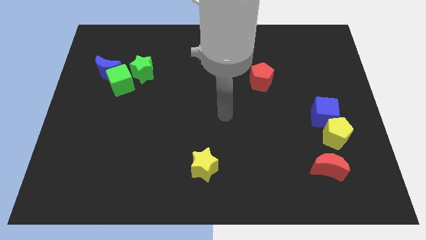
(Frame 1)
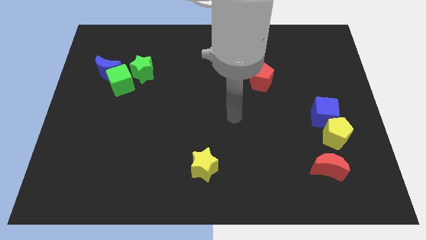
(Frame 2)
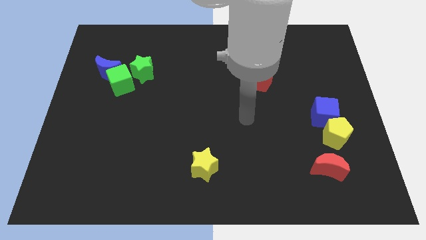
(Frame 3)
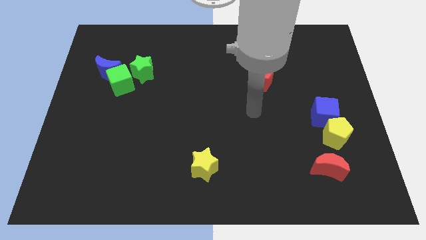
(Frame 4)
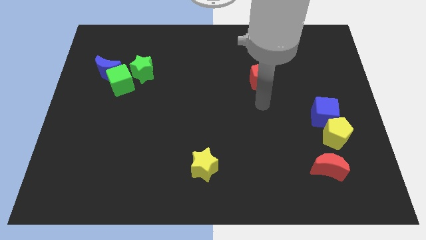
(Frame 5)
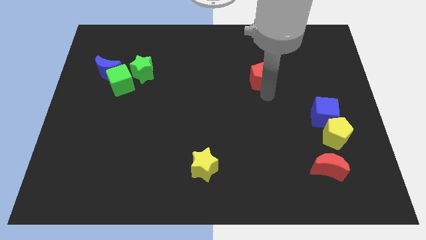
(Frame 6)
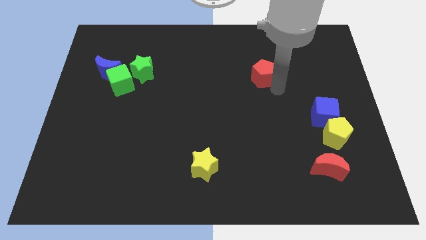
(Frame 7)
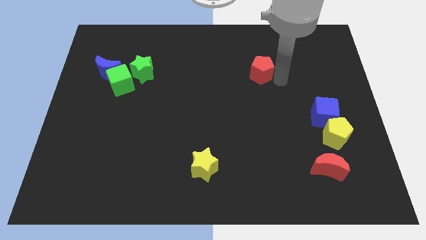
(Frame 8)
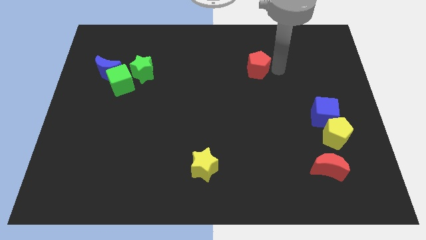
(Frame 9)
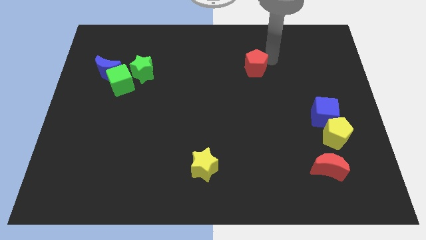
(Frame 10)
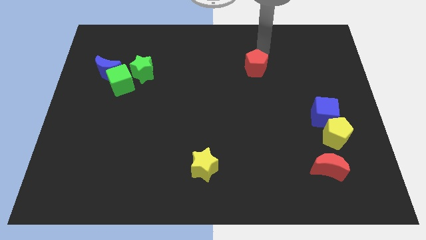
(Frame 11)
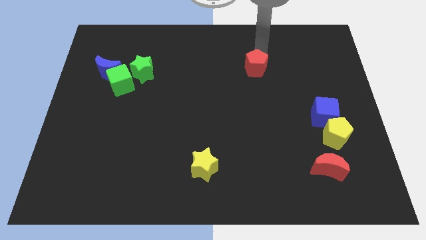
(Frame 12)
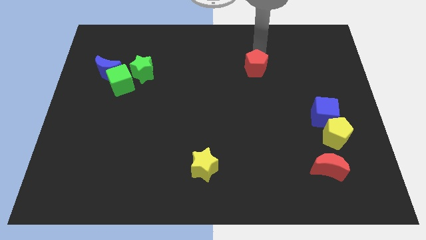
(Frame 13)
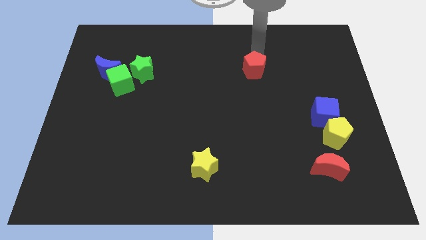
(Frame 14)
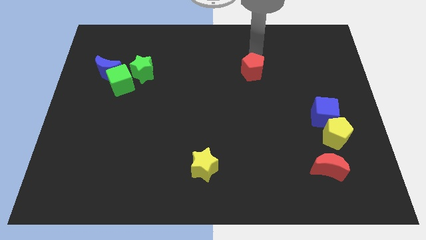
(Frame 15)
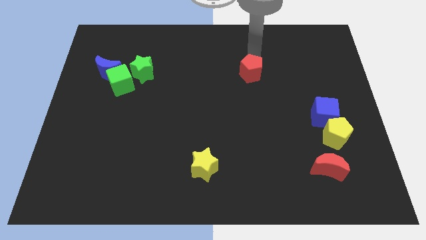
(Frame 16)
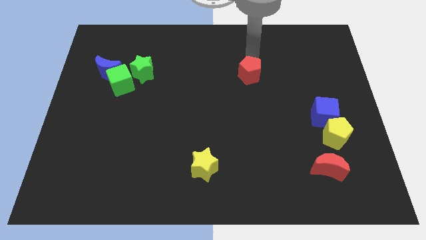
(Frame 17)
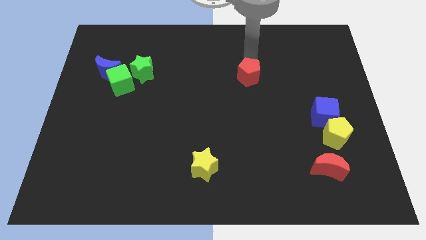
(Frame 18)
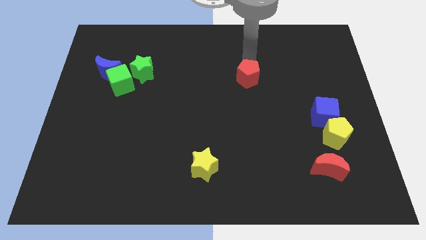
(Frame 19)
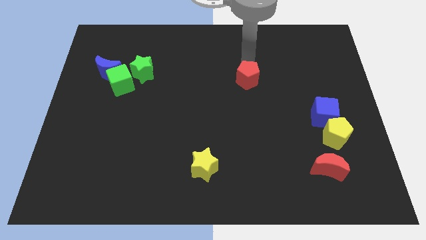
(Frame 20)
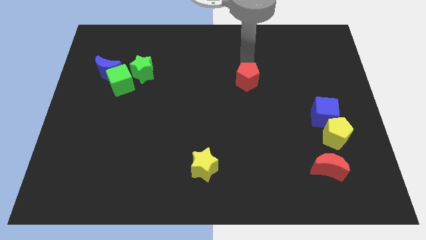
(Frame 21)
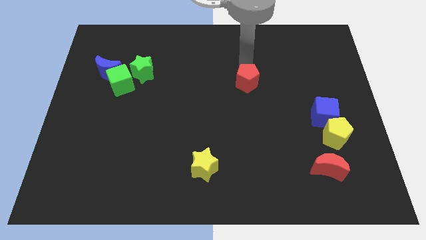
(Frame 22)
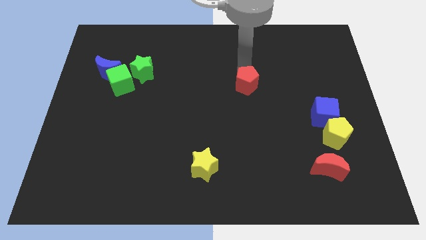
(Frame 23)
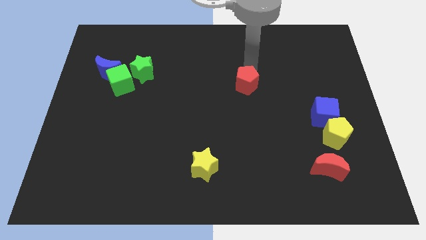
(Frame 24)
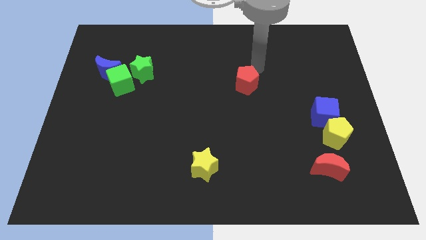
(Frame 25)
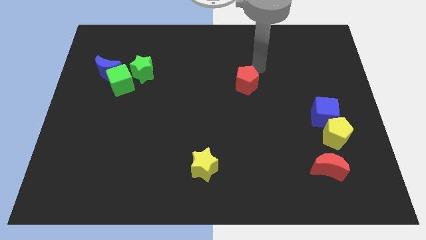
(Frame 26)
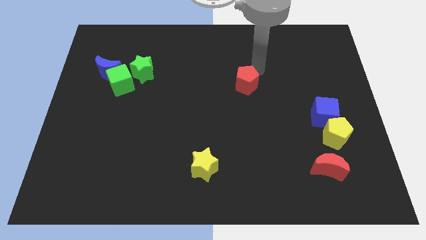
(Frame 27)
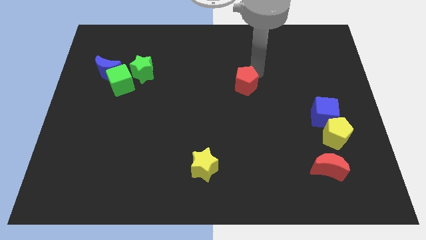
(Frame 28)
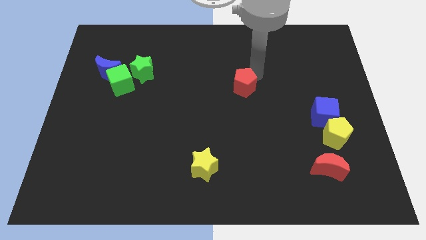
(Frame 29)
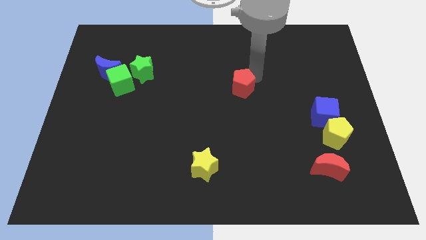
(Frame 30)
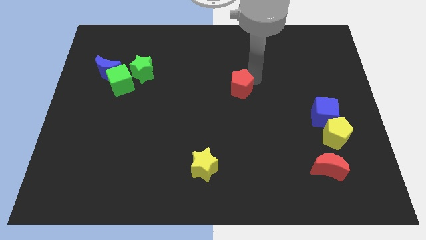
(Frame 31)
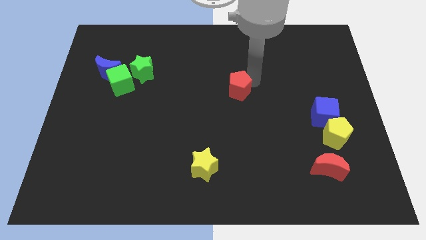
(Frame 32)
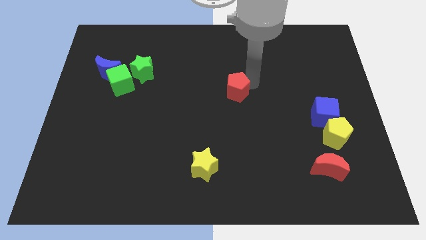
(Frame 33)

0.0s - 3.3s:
slightly slide the red pentagon diagonally down and to the left

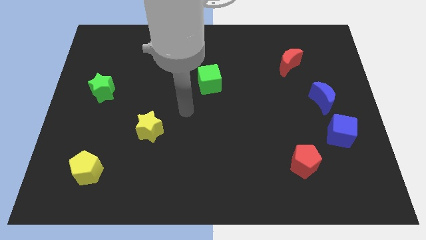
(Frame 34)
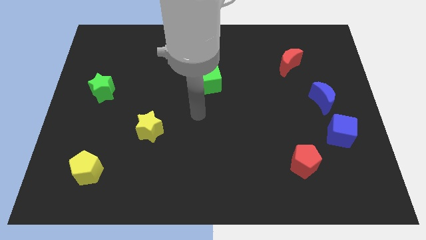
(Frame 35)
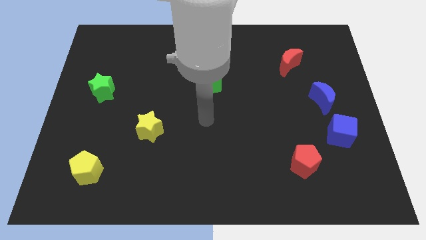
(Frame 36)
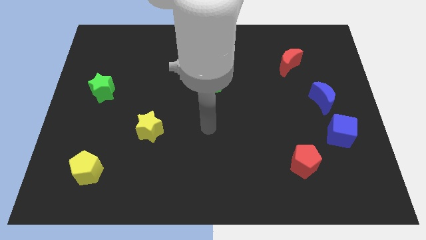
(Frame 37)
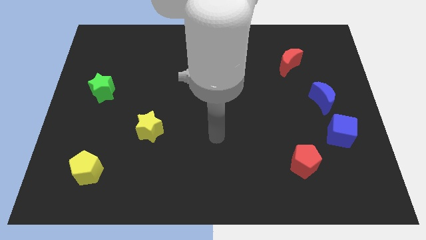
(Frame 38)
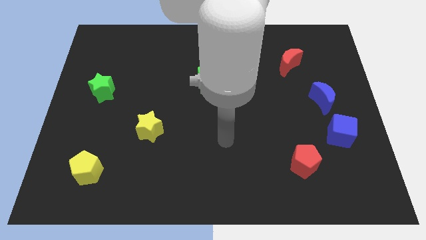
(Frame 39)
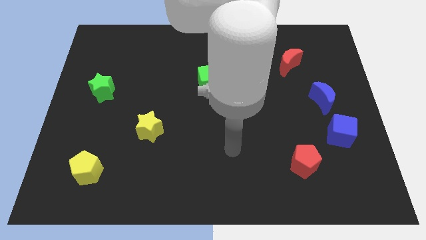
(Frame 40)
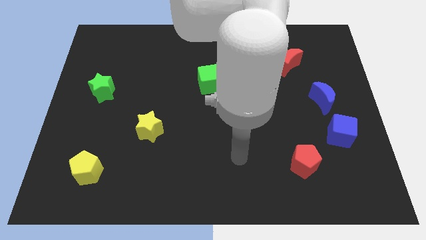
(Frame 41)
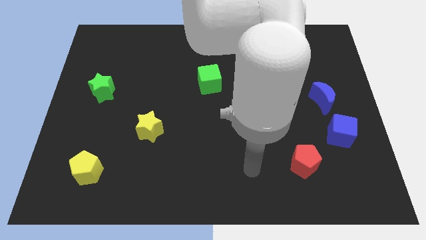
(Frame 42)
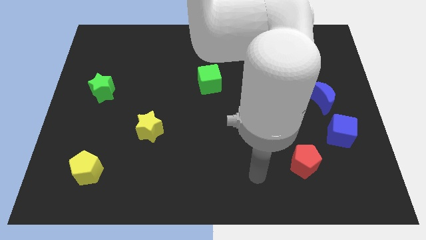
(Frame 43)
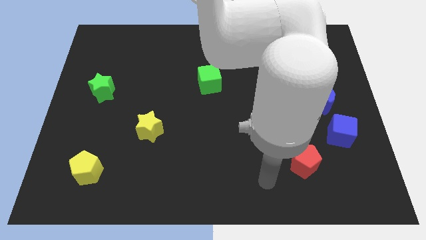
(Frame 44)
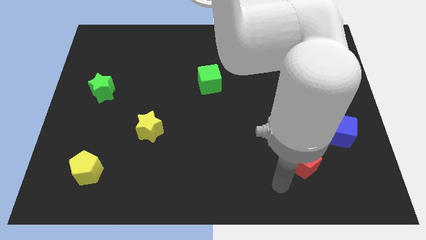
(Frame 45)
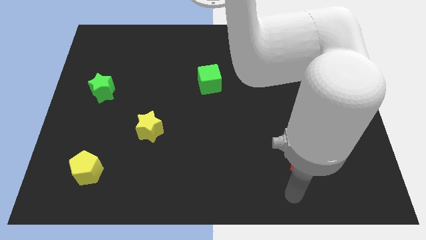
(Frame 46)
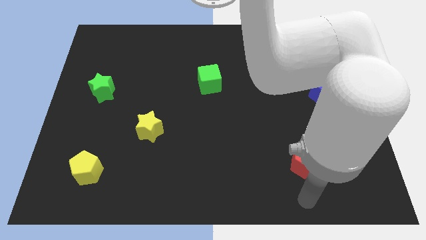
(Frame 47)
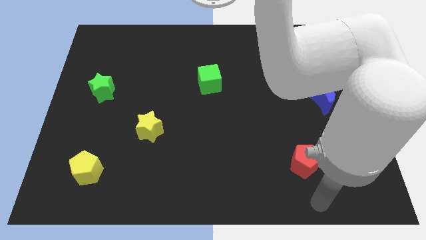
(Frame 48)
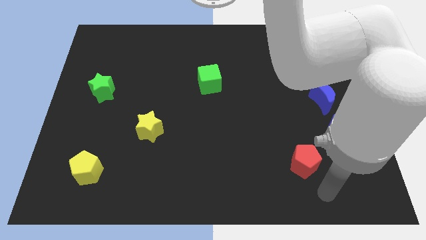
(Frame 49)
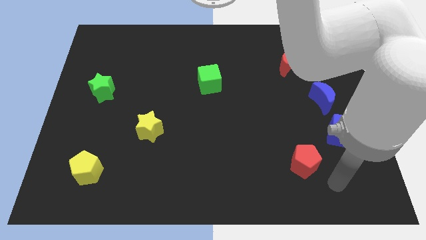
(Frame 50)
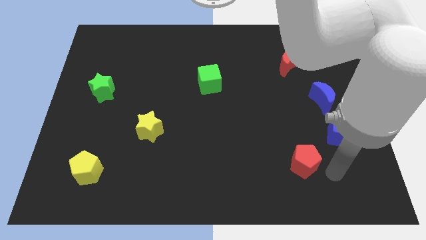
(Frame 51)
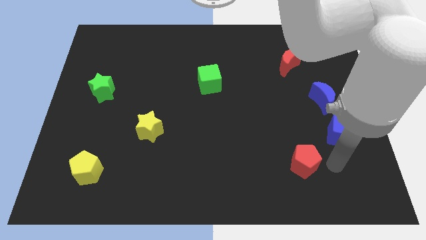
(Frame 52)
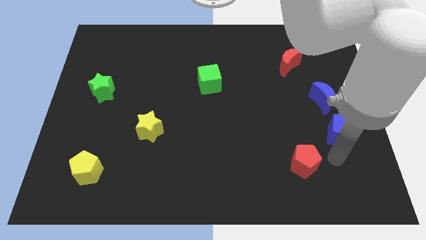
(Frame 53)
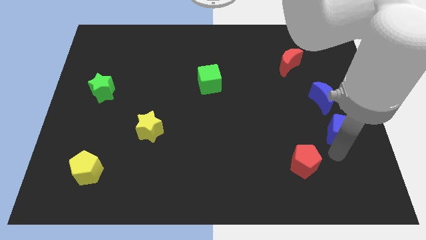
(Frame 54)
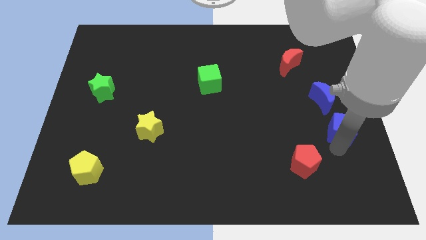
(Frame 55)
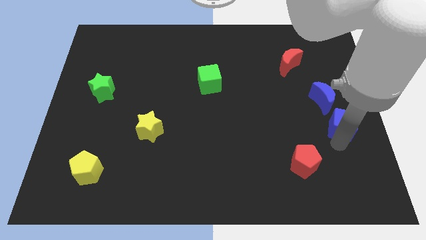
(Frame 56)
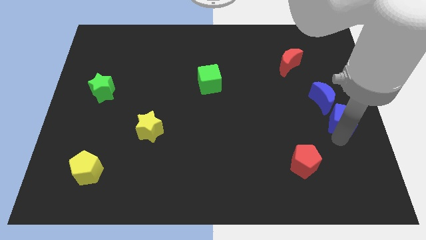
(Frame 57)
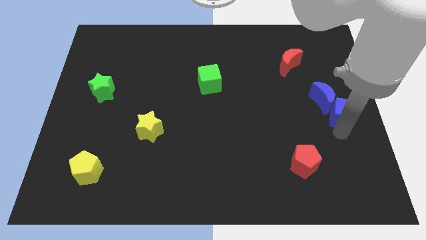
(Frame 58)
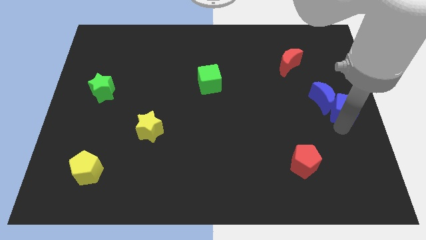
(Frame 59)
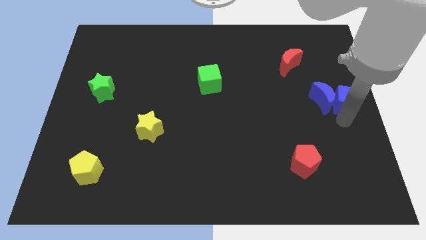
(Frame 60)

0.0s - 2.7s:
slide the blue cube a little up

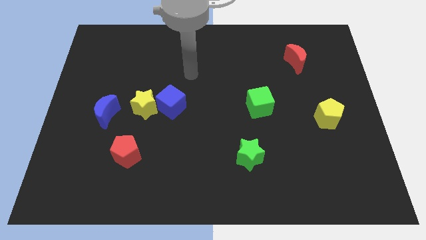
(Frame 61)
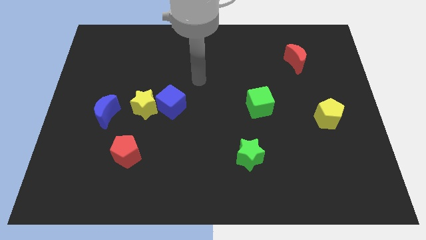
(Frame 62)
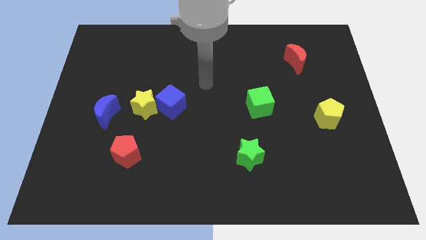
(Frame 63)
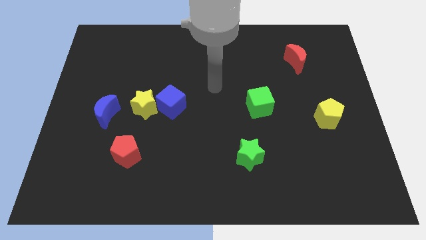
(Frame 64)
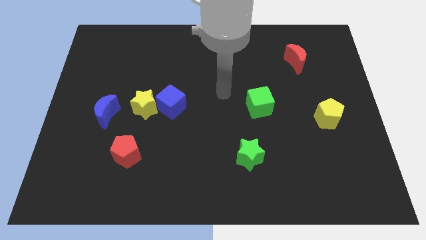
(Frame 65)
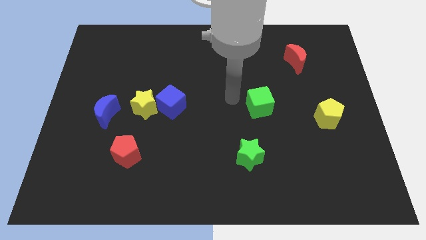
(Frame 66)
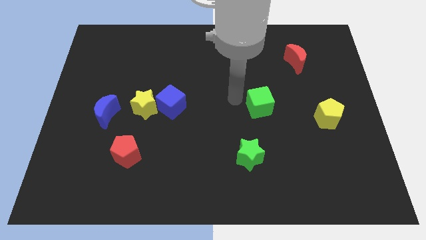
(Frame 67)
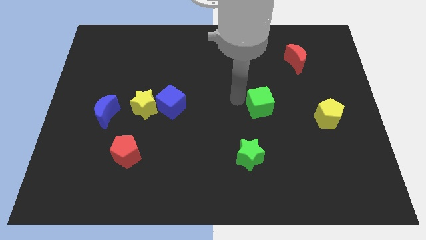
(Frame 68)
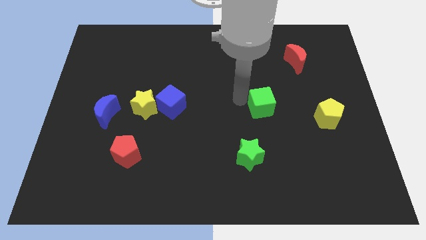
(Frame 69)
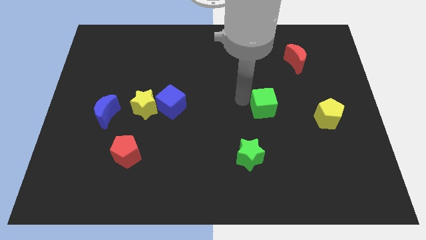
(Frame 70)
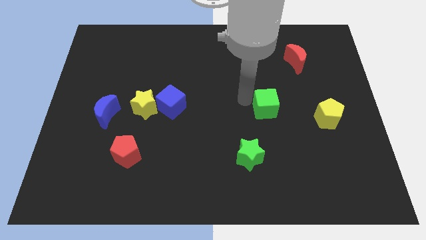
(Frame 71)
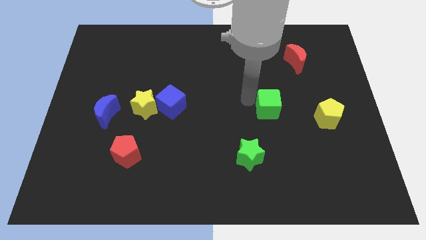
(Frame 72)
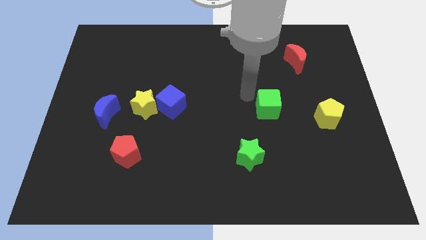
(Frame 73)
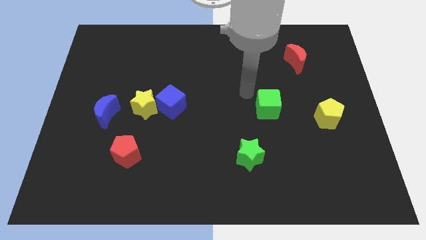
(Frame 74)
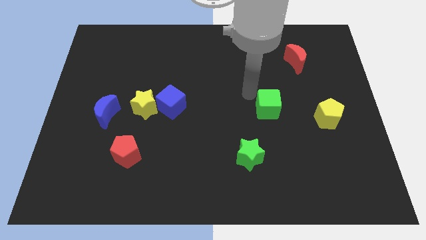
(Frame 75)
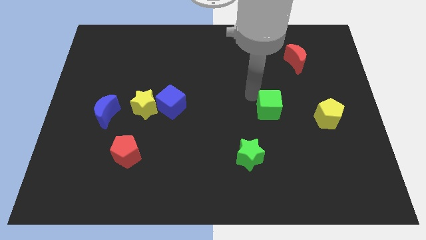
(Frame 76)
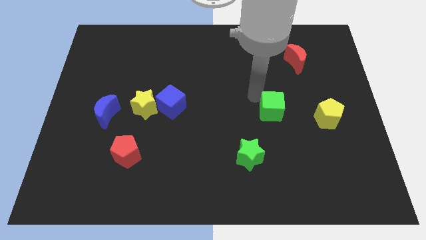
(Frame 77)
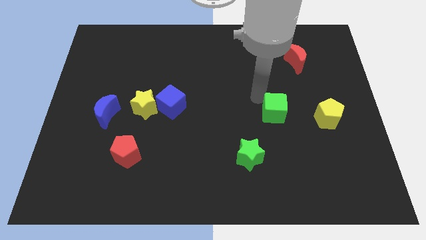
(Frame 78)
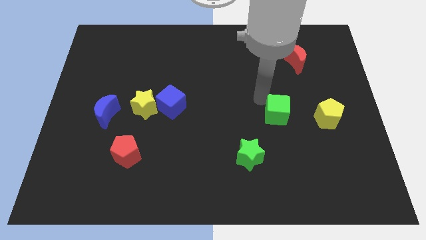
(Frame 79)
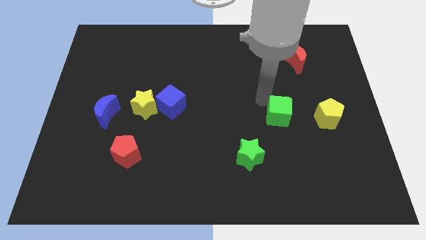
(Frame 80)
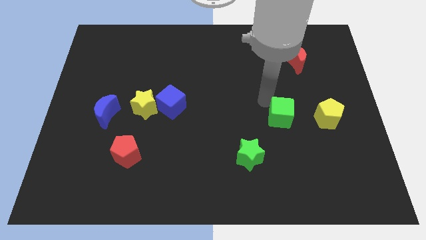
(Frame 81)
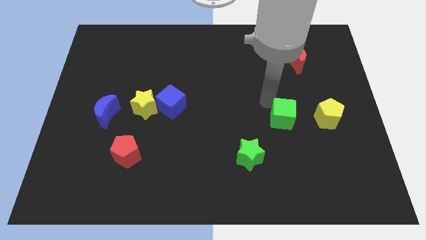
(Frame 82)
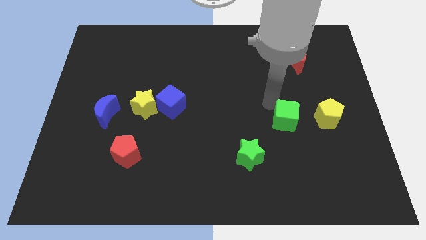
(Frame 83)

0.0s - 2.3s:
slightly push the green cube diagonally down and right
